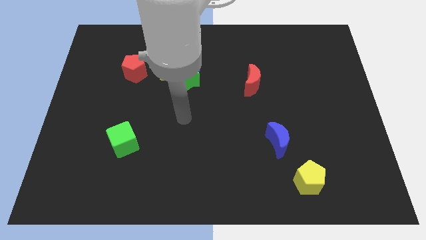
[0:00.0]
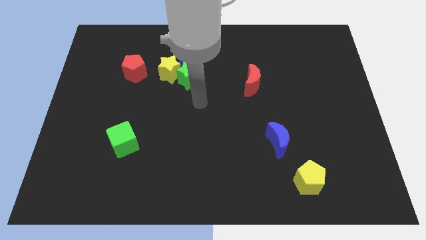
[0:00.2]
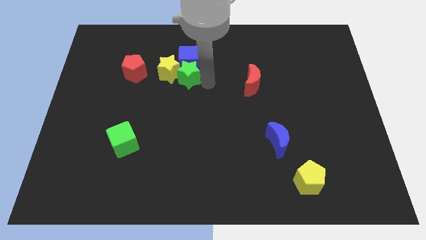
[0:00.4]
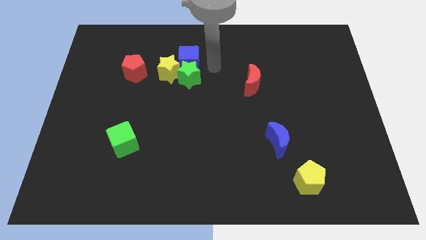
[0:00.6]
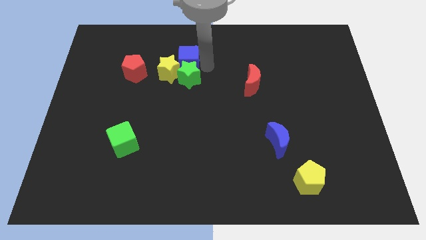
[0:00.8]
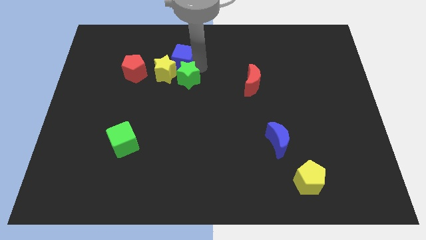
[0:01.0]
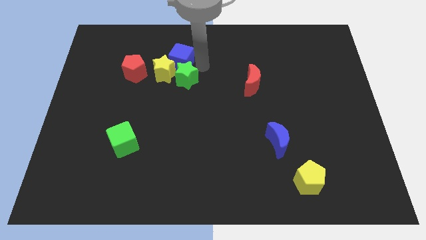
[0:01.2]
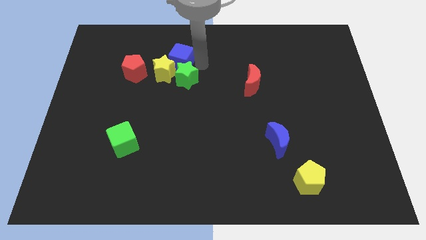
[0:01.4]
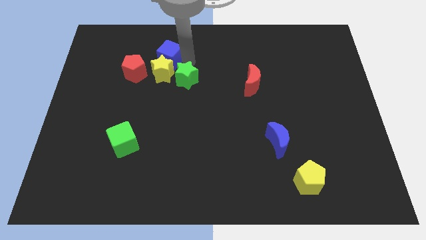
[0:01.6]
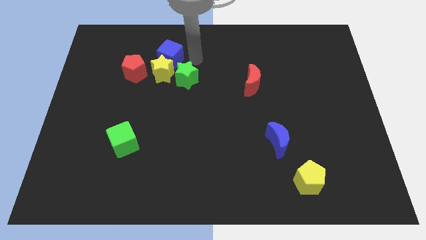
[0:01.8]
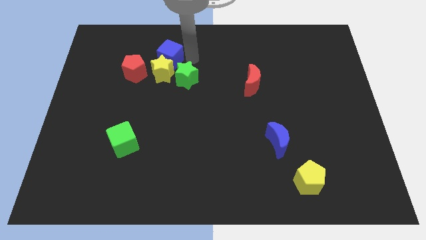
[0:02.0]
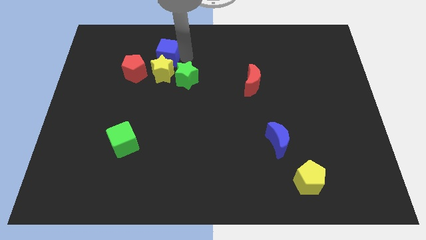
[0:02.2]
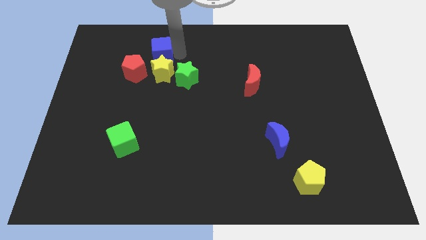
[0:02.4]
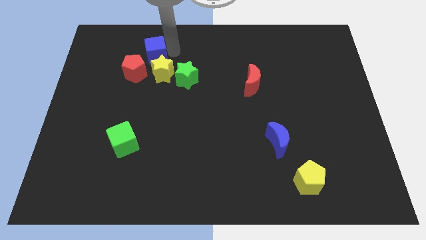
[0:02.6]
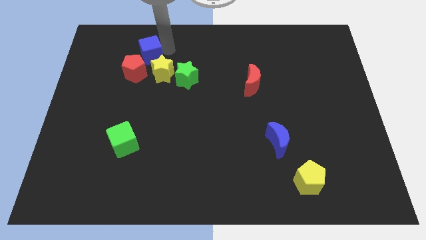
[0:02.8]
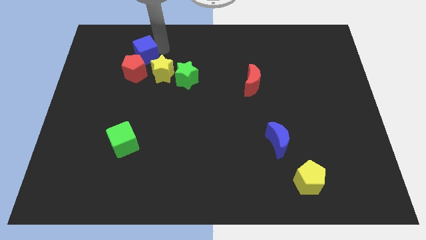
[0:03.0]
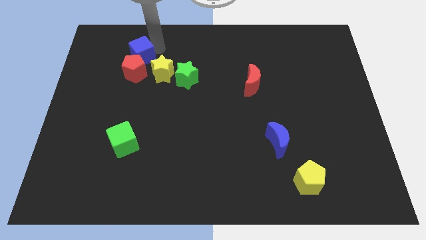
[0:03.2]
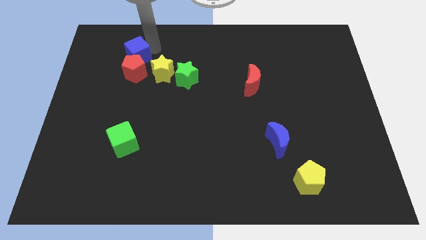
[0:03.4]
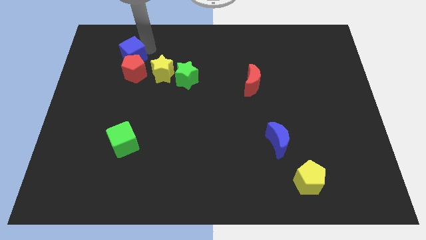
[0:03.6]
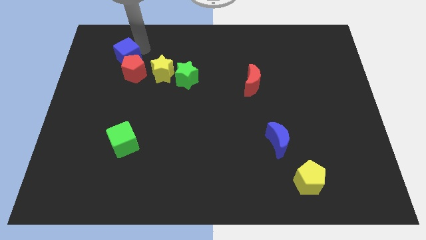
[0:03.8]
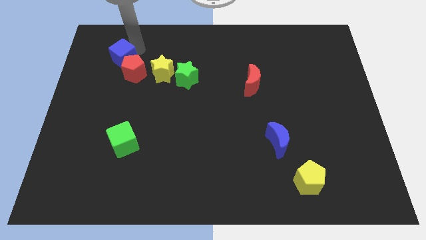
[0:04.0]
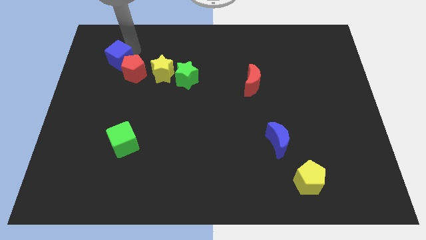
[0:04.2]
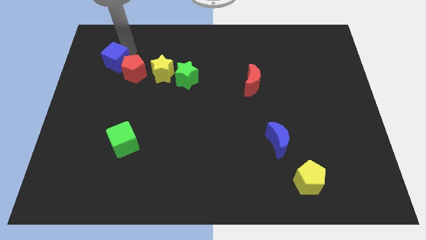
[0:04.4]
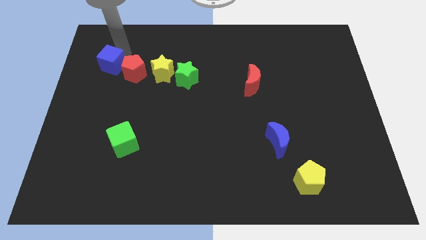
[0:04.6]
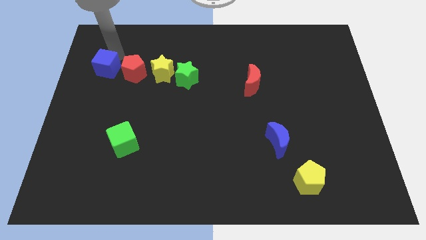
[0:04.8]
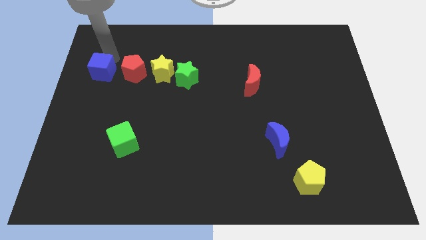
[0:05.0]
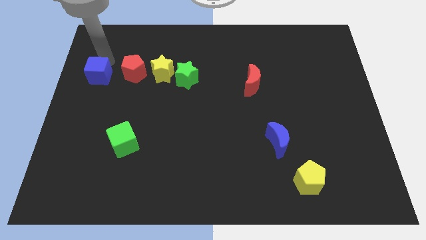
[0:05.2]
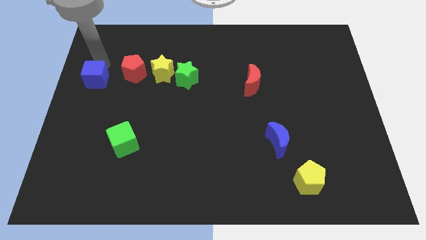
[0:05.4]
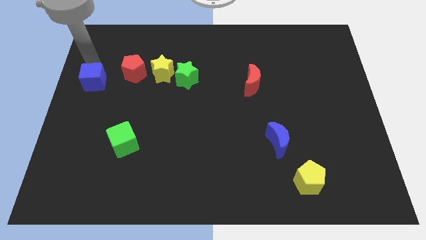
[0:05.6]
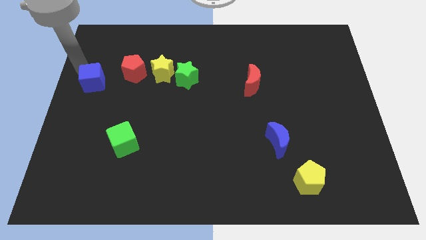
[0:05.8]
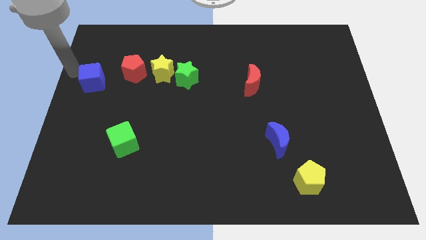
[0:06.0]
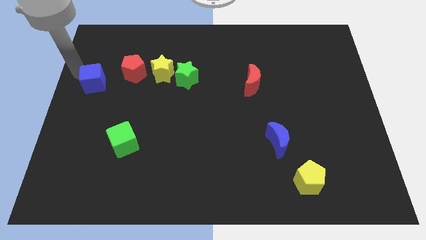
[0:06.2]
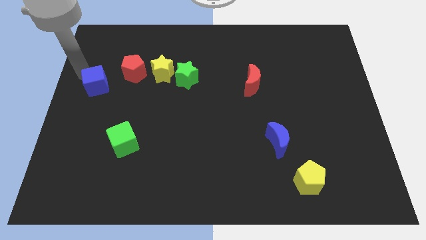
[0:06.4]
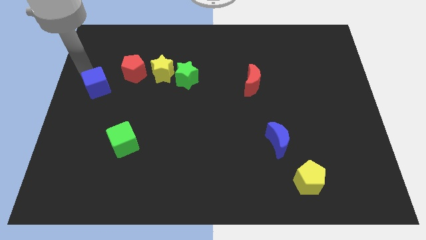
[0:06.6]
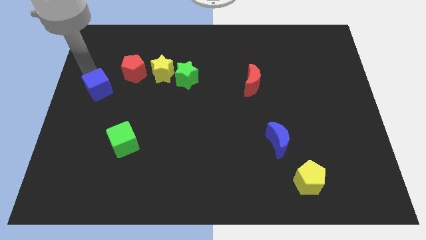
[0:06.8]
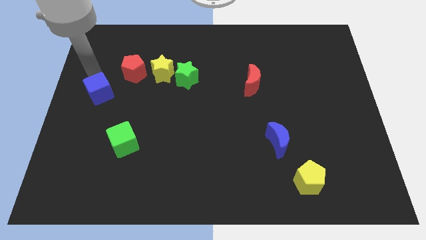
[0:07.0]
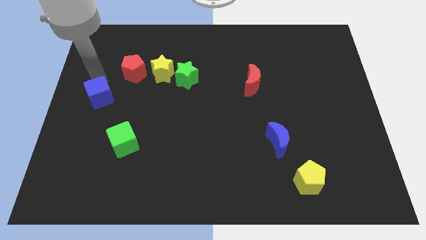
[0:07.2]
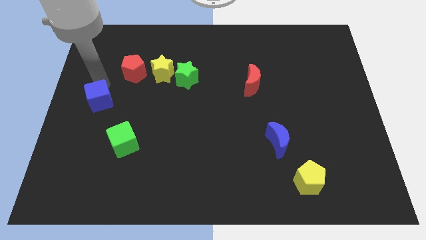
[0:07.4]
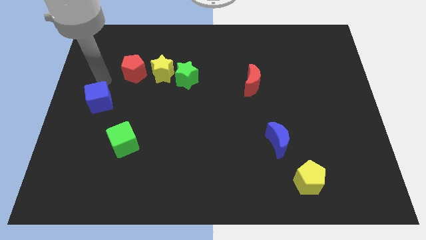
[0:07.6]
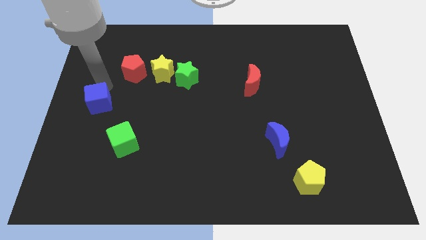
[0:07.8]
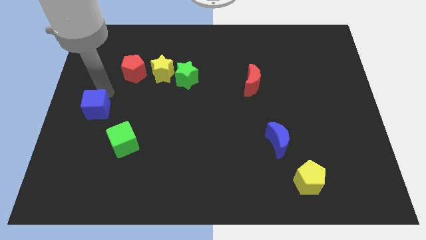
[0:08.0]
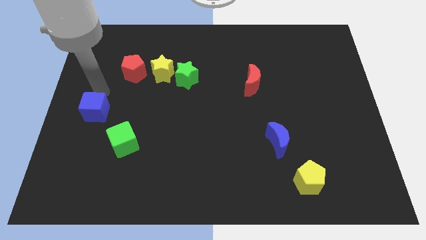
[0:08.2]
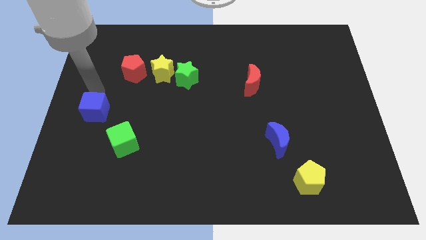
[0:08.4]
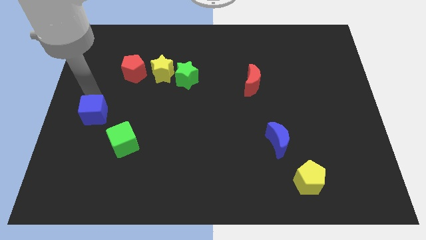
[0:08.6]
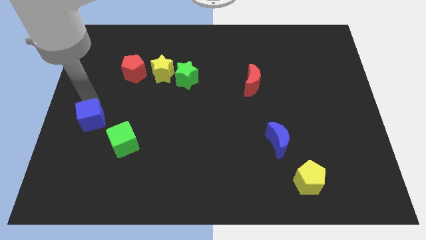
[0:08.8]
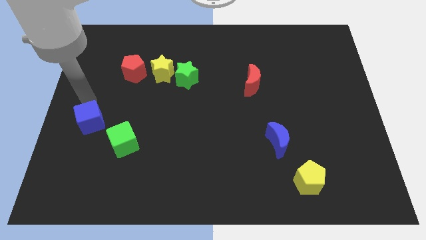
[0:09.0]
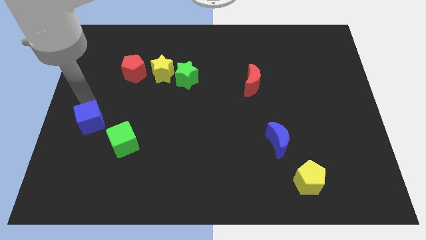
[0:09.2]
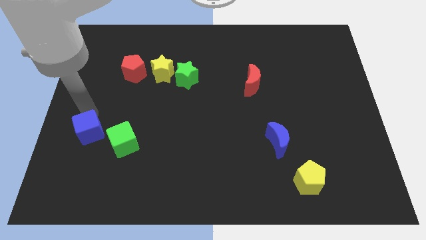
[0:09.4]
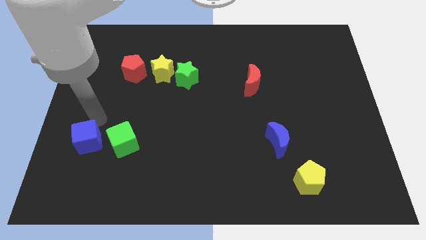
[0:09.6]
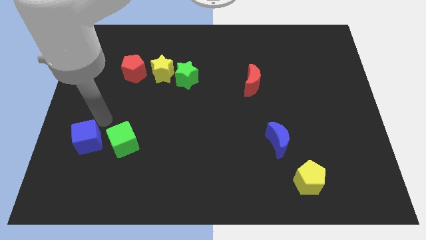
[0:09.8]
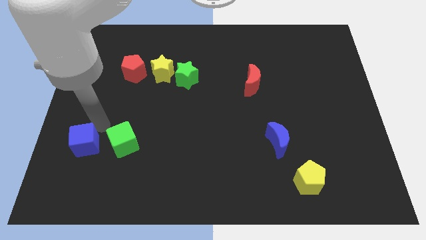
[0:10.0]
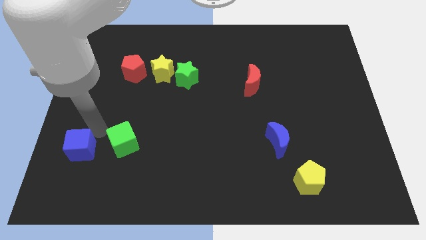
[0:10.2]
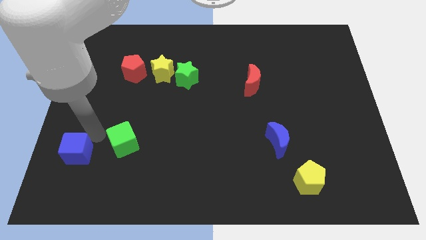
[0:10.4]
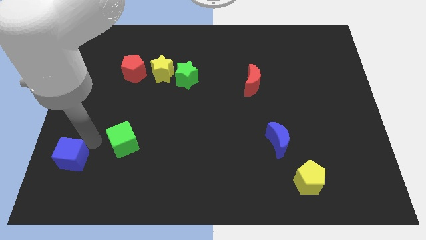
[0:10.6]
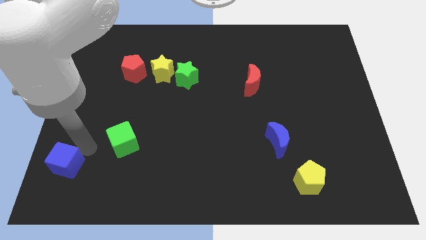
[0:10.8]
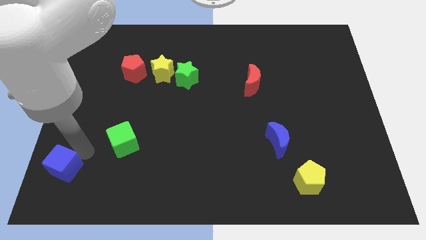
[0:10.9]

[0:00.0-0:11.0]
push the blue cube to the lower left corner

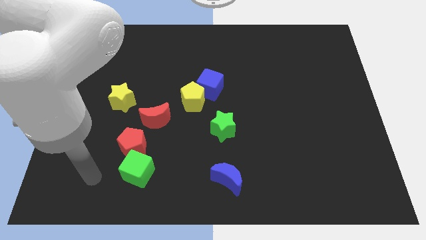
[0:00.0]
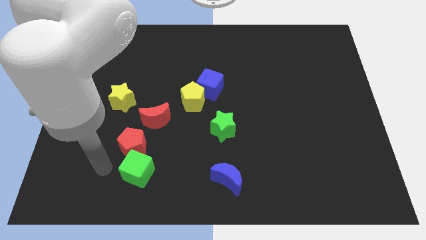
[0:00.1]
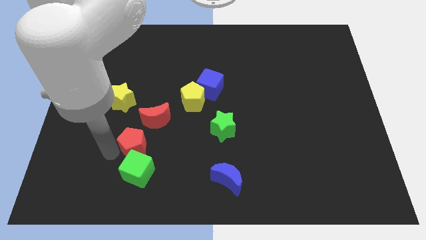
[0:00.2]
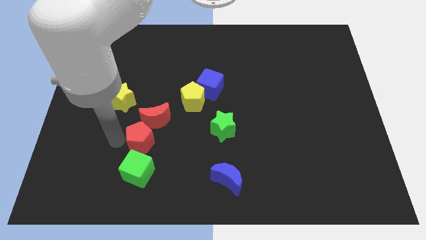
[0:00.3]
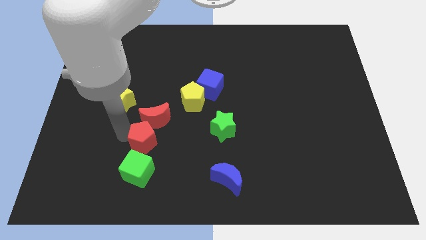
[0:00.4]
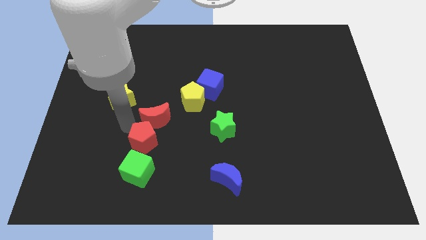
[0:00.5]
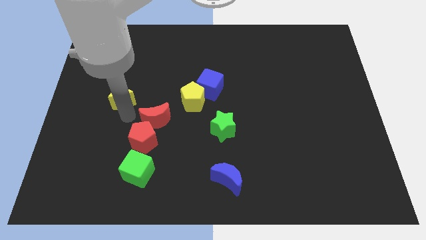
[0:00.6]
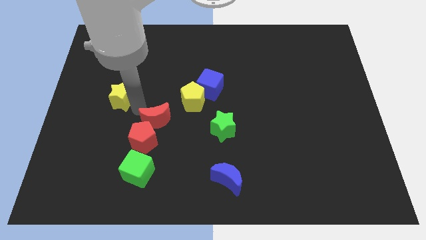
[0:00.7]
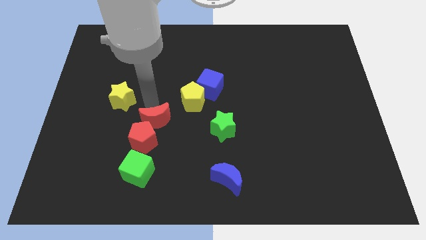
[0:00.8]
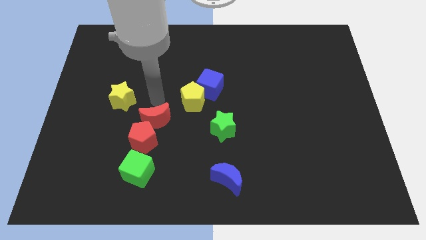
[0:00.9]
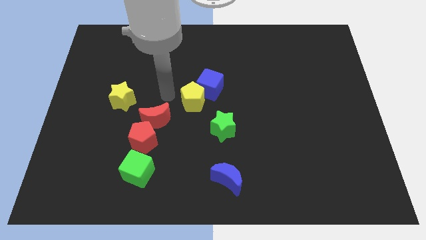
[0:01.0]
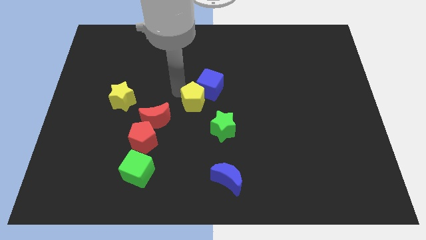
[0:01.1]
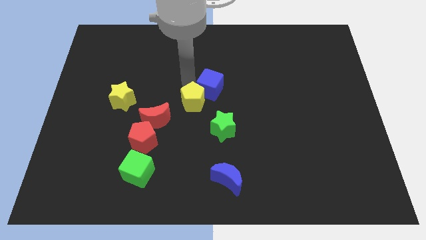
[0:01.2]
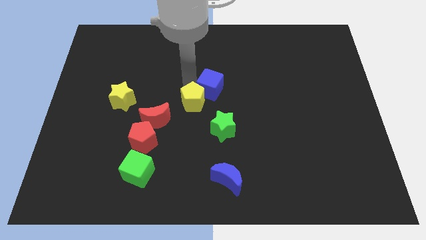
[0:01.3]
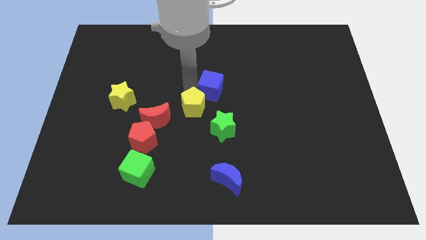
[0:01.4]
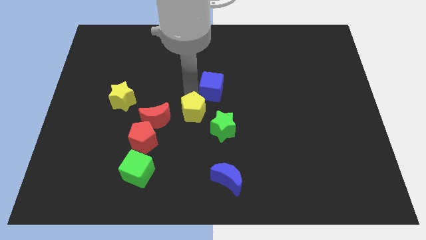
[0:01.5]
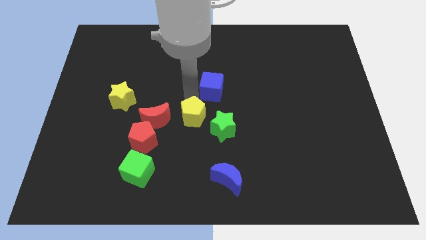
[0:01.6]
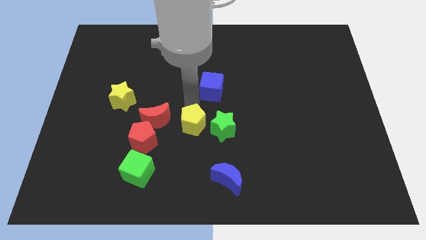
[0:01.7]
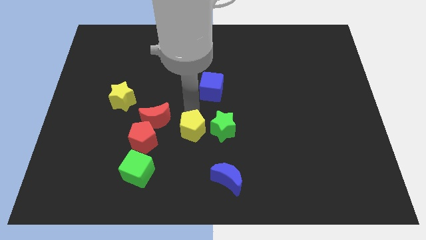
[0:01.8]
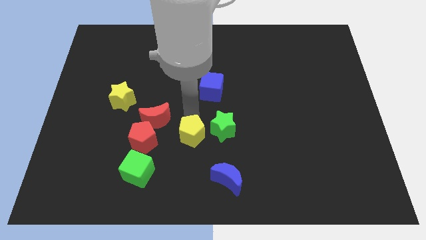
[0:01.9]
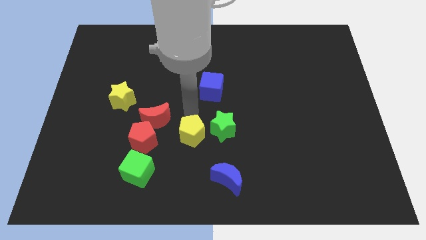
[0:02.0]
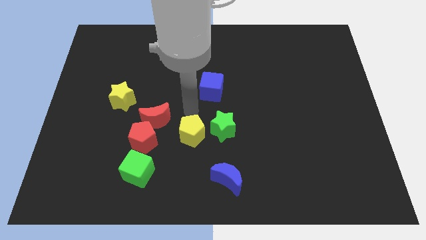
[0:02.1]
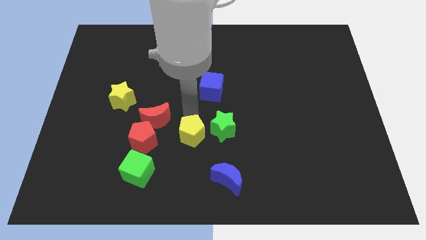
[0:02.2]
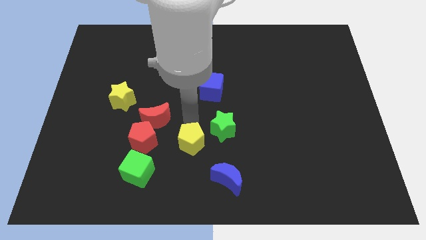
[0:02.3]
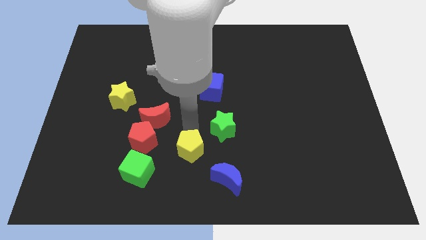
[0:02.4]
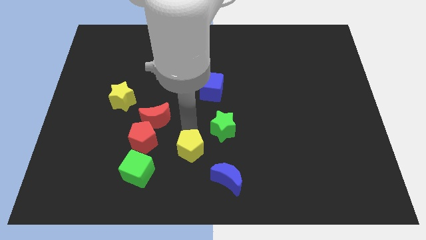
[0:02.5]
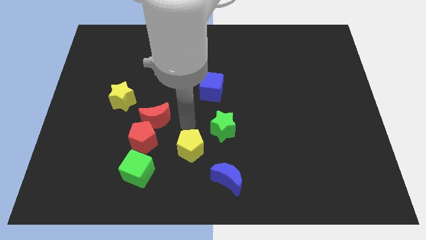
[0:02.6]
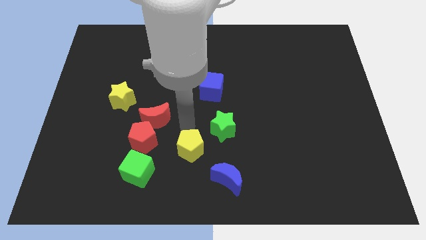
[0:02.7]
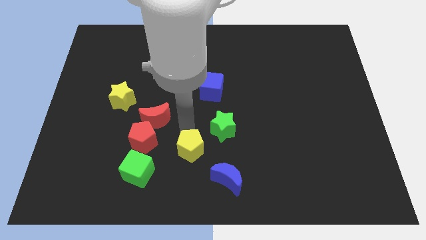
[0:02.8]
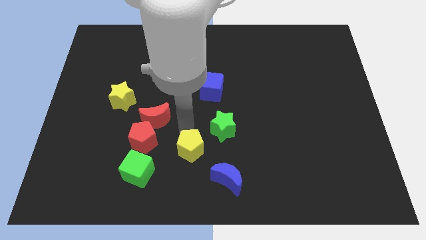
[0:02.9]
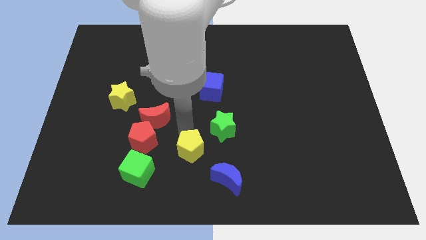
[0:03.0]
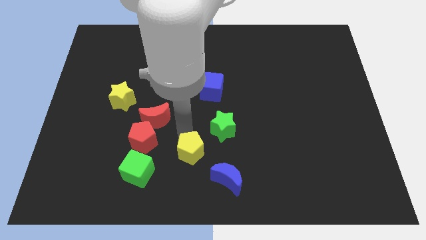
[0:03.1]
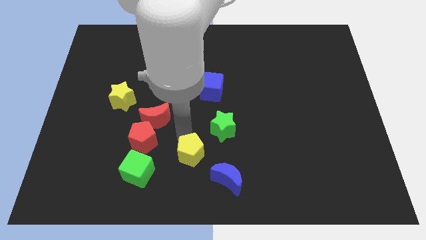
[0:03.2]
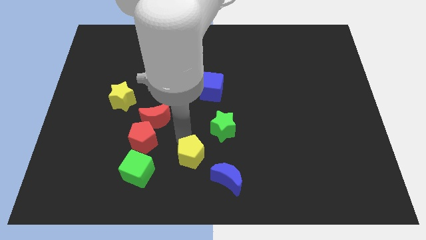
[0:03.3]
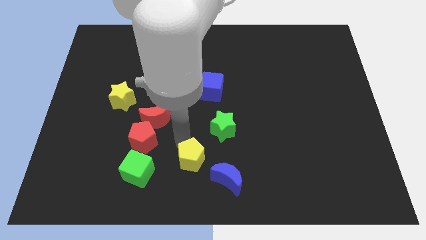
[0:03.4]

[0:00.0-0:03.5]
move the yellow pentagon to the bottom side
